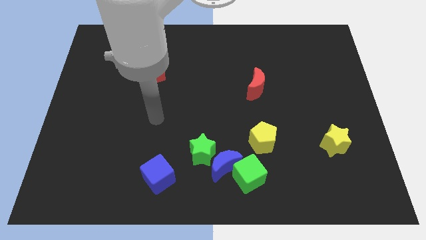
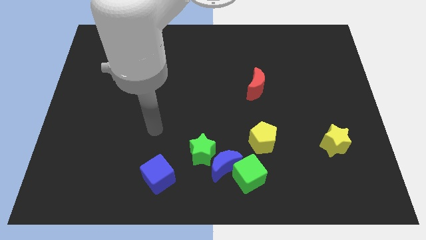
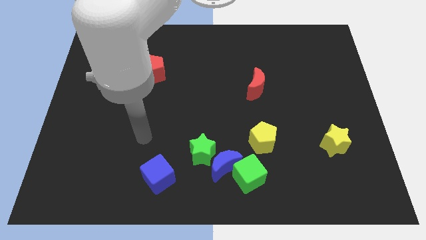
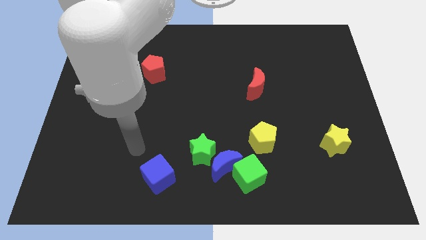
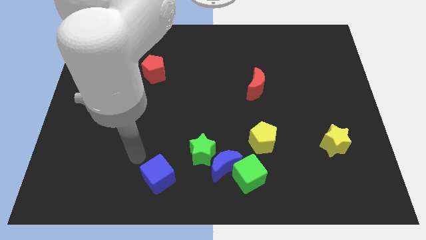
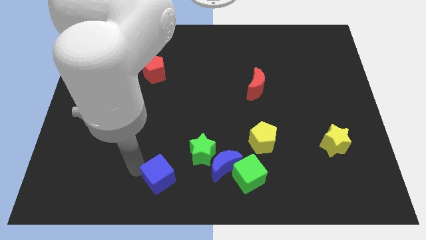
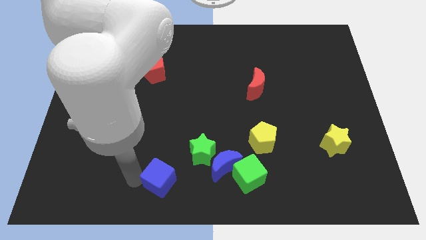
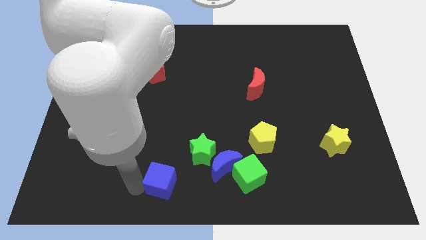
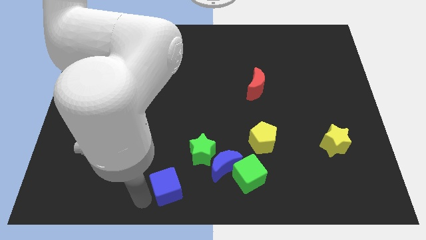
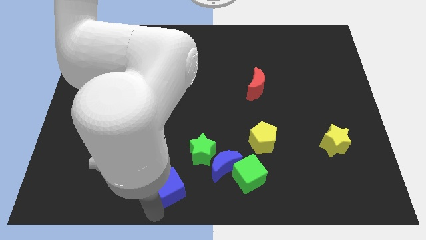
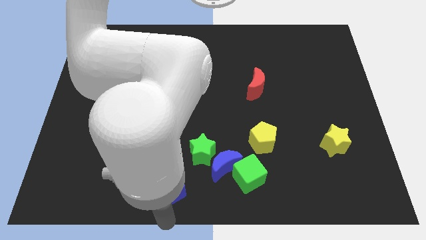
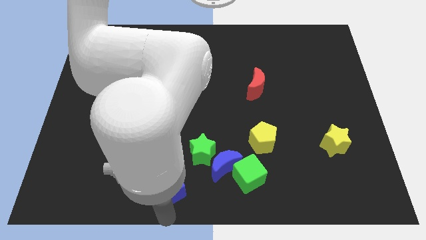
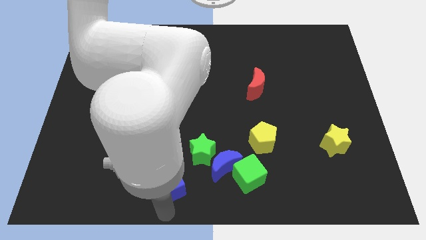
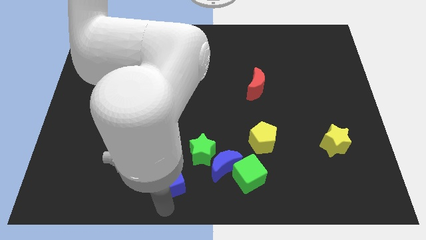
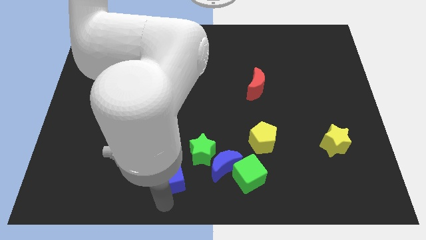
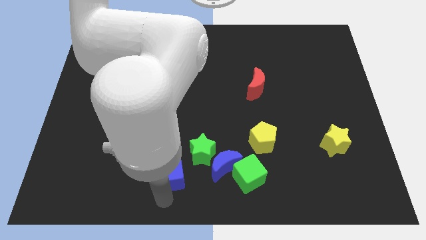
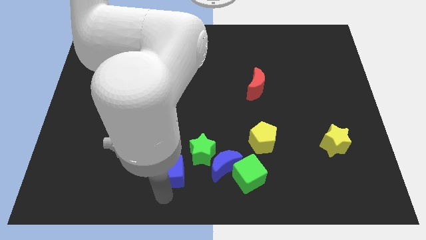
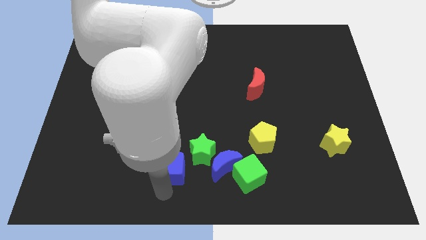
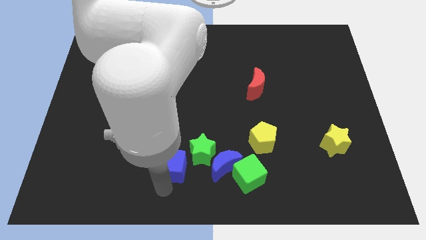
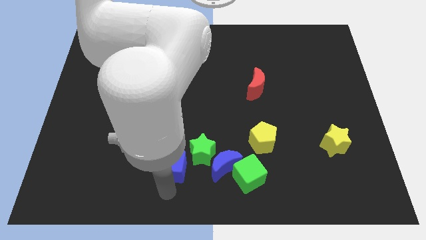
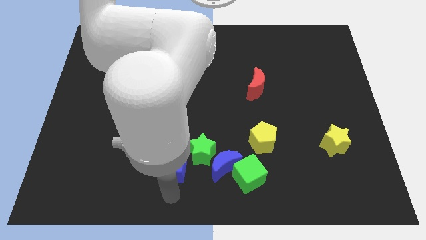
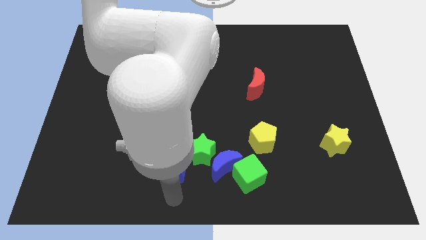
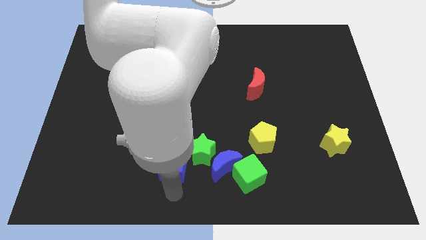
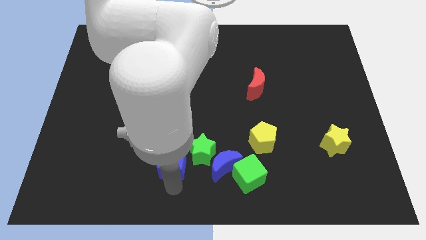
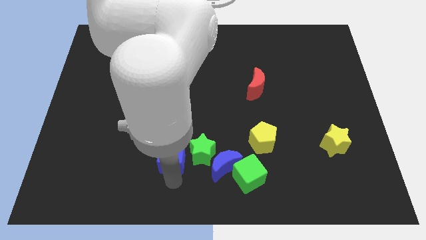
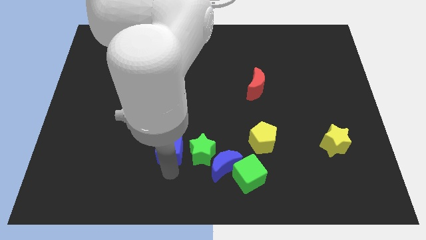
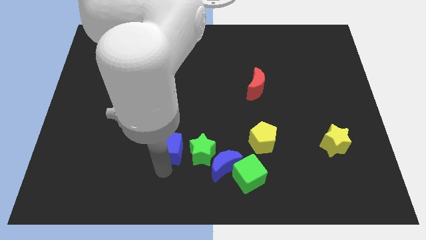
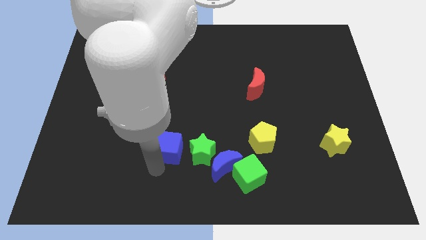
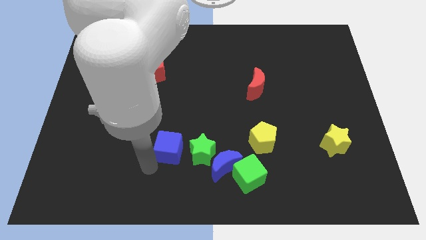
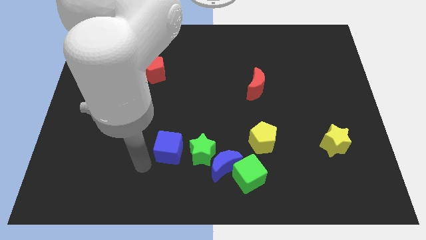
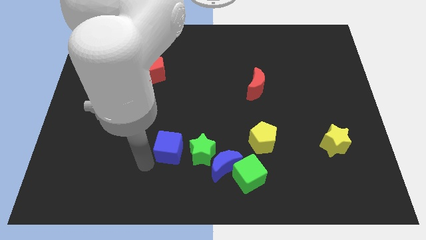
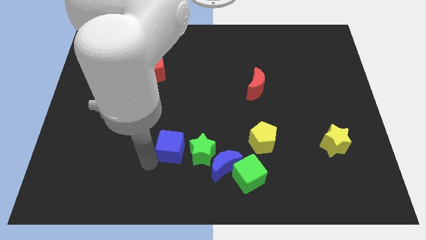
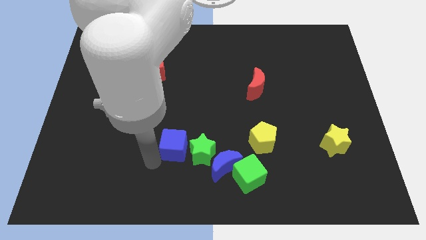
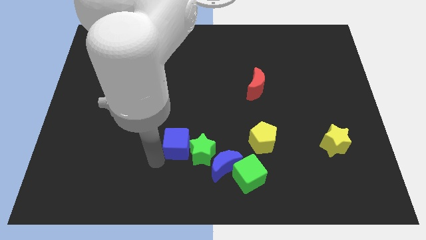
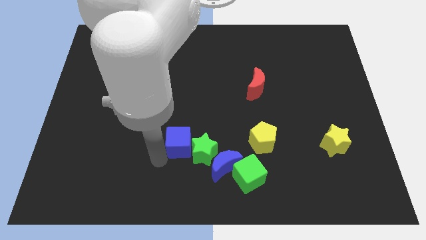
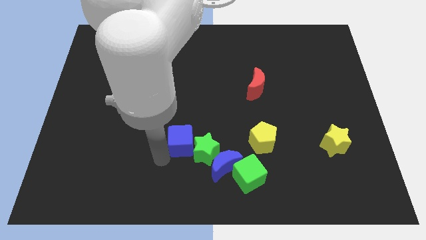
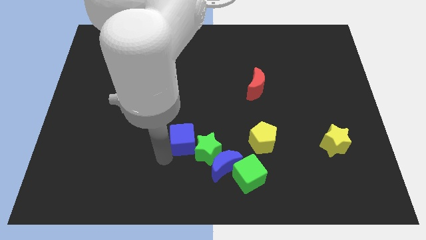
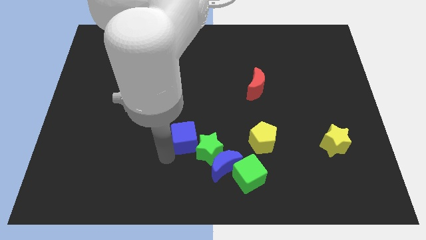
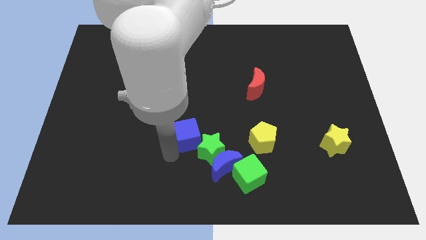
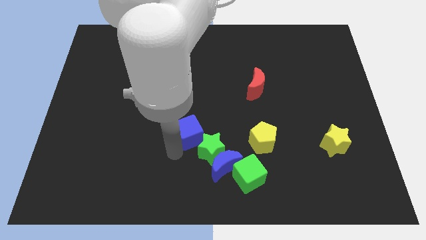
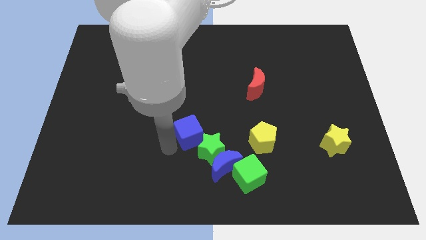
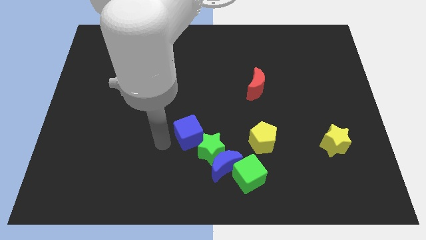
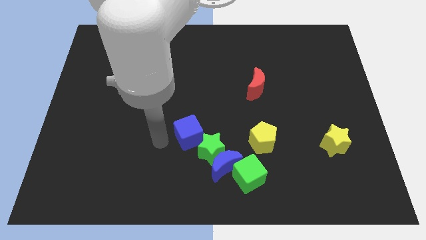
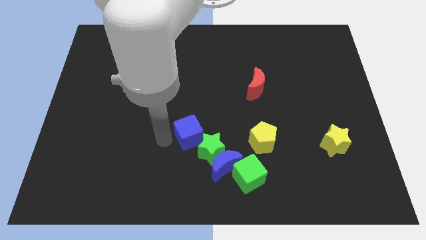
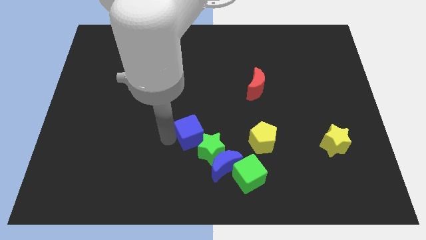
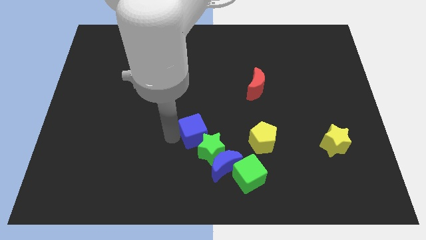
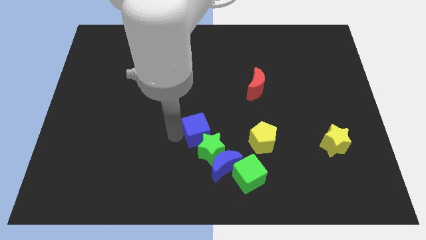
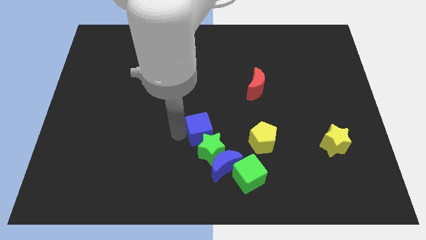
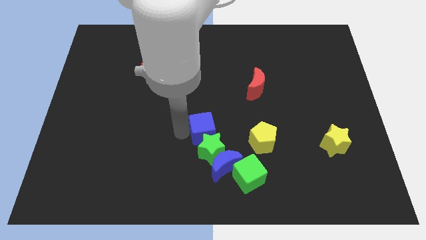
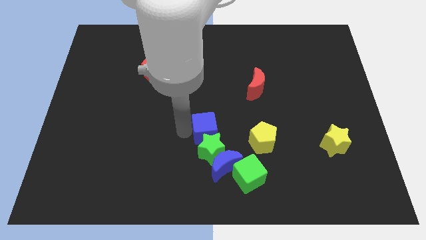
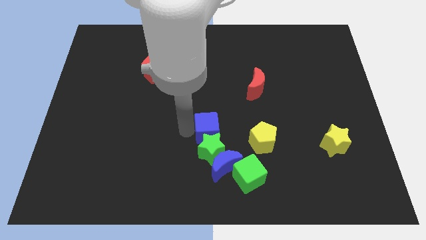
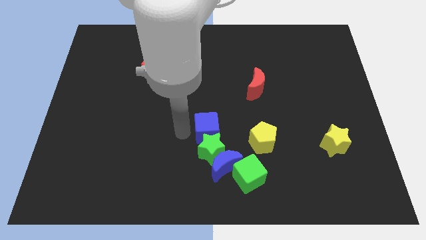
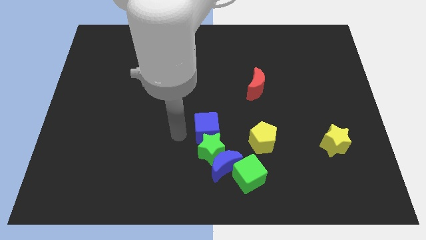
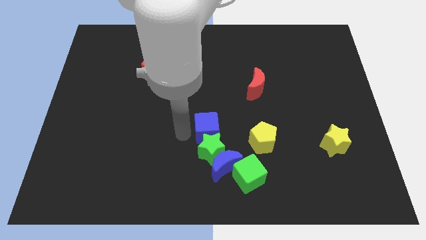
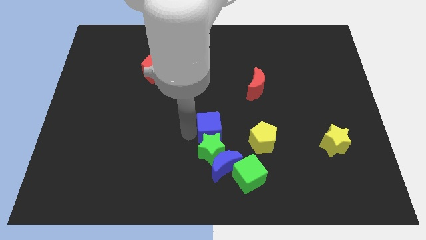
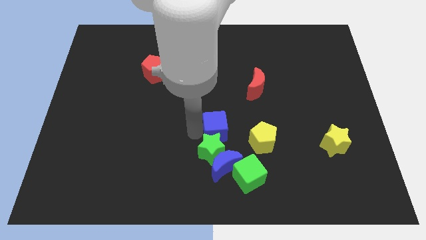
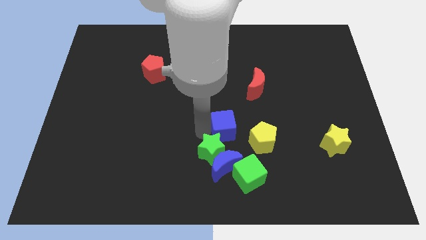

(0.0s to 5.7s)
put the blue cube to the top left side of the yellow pentagon
